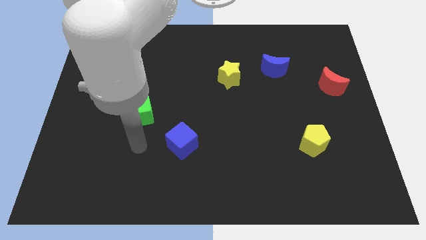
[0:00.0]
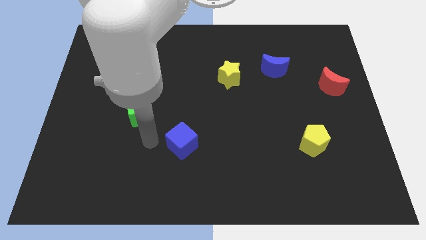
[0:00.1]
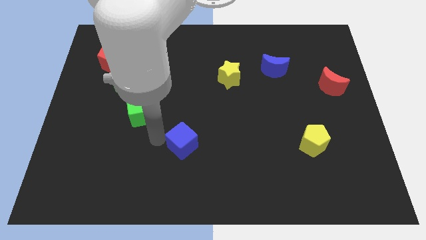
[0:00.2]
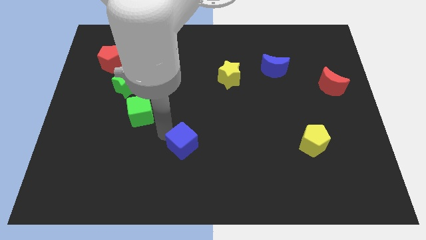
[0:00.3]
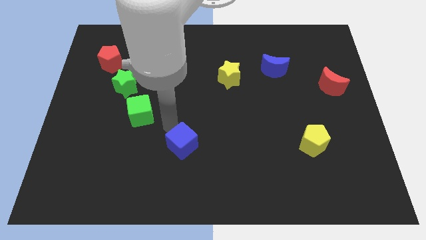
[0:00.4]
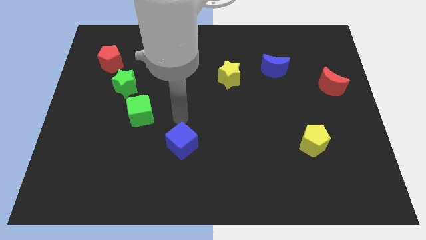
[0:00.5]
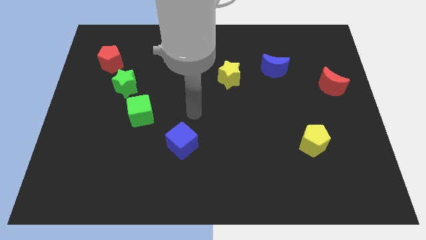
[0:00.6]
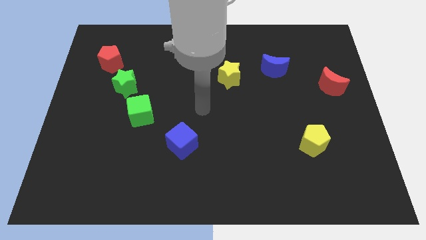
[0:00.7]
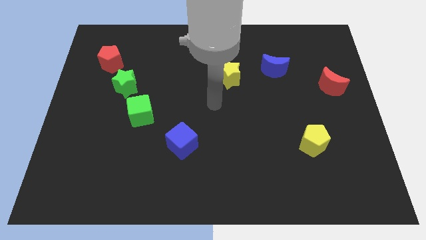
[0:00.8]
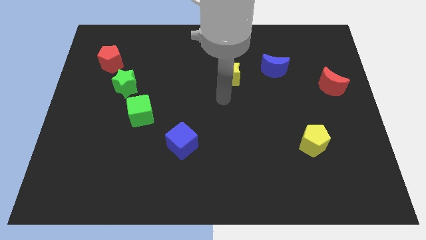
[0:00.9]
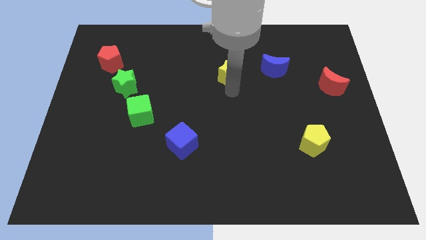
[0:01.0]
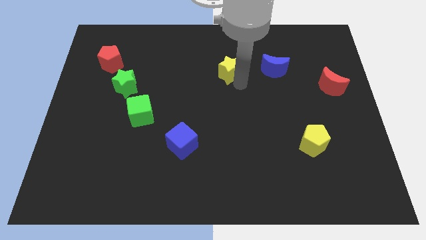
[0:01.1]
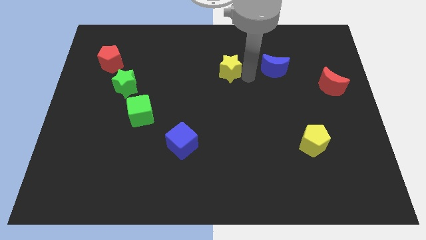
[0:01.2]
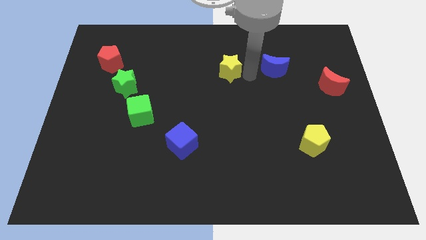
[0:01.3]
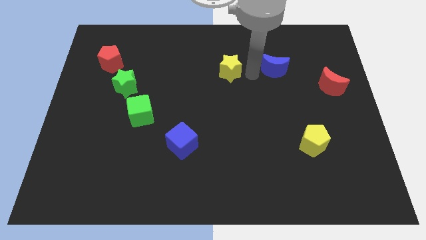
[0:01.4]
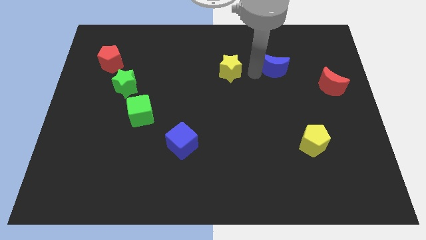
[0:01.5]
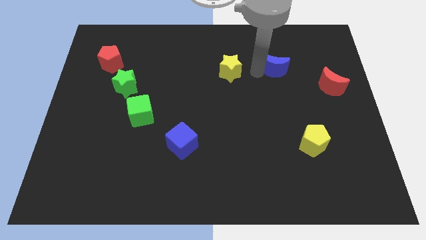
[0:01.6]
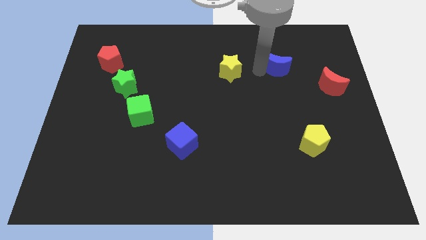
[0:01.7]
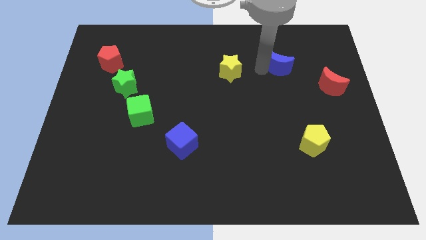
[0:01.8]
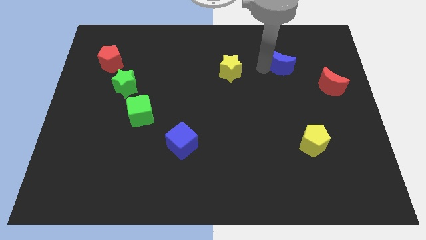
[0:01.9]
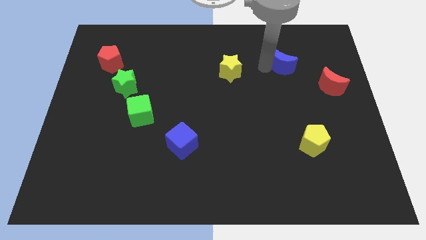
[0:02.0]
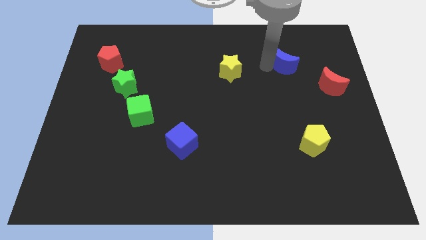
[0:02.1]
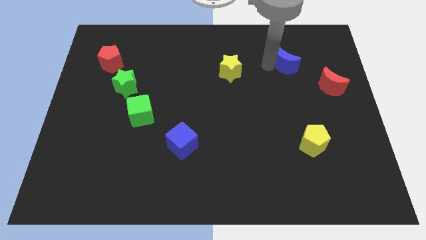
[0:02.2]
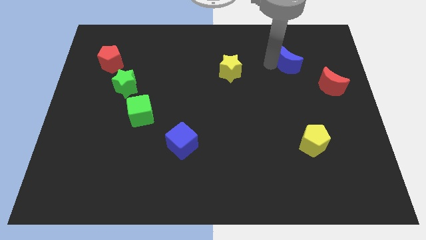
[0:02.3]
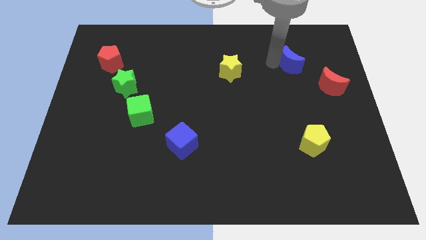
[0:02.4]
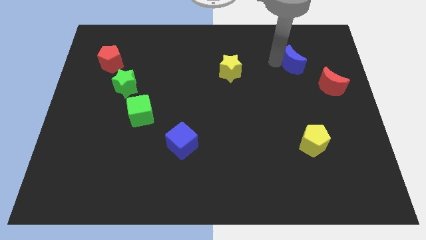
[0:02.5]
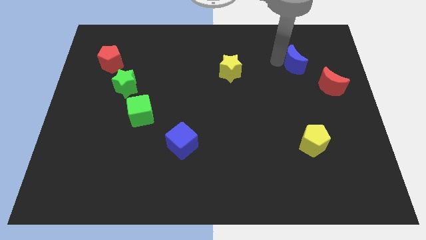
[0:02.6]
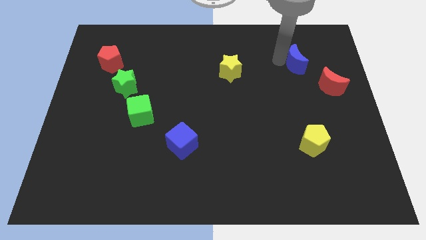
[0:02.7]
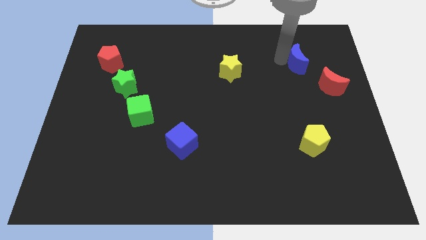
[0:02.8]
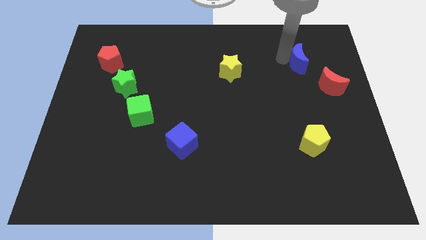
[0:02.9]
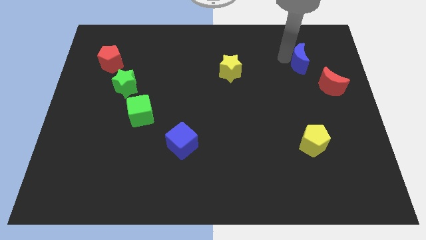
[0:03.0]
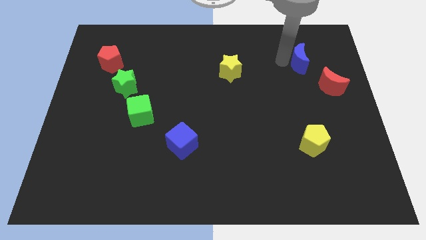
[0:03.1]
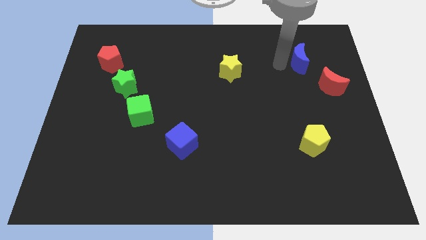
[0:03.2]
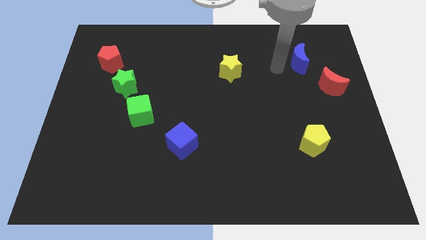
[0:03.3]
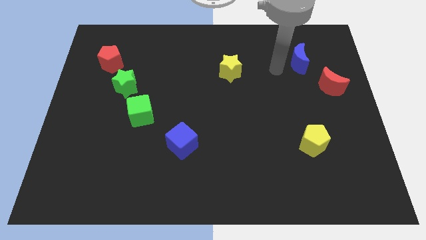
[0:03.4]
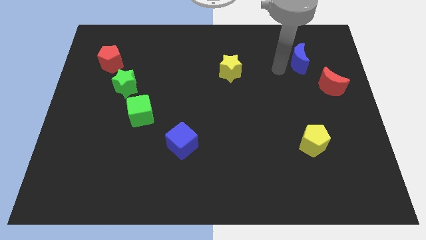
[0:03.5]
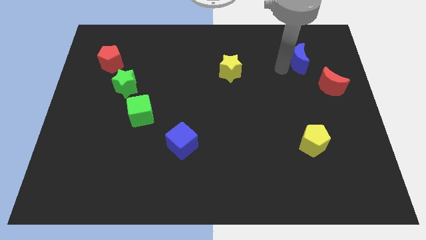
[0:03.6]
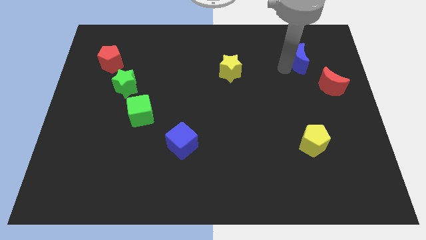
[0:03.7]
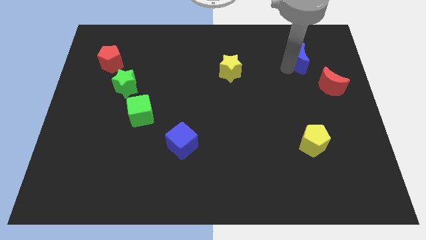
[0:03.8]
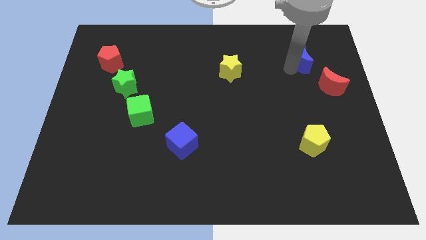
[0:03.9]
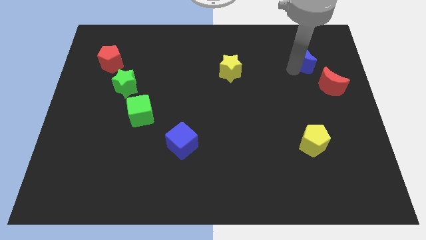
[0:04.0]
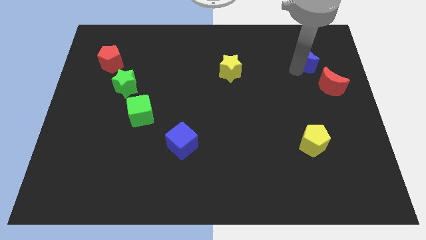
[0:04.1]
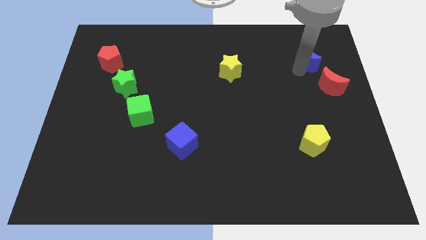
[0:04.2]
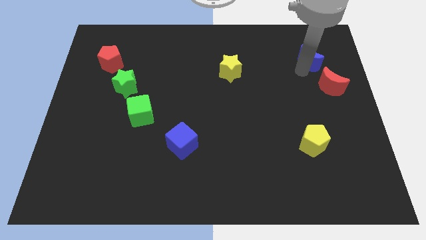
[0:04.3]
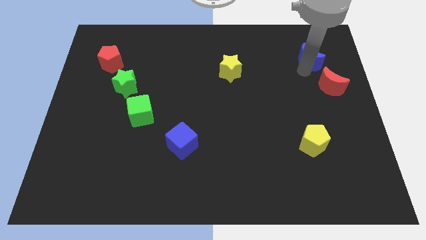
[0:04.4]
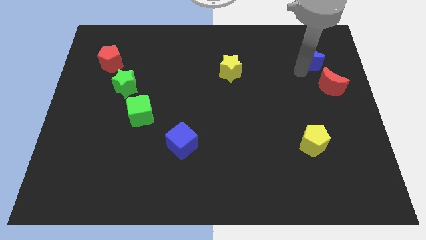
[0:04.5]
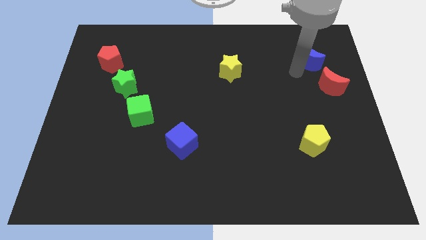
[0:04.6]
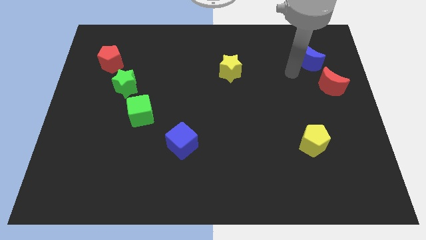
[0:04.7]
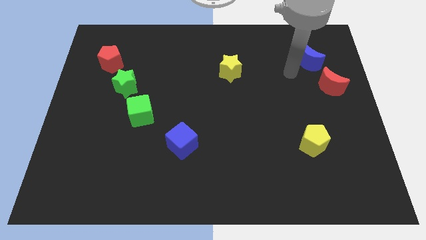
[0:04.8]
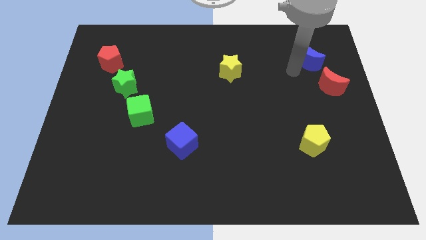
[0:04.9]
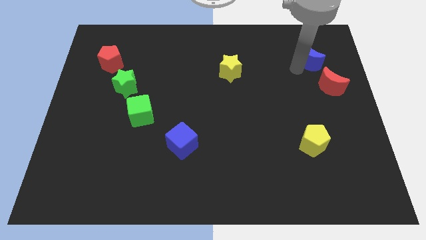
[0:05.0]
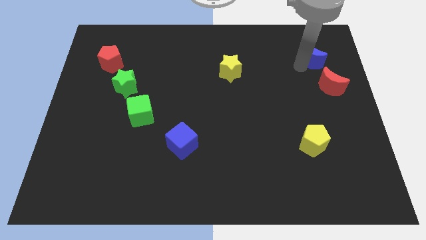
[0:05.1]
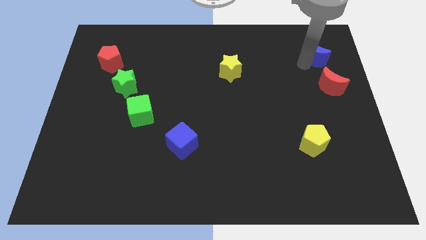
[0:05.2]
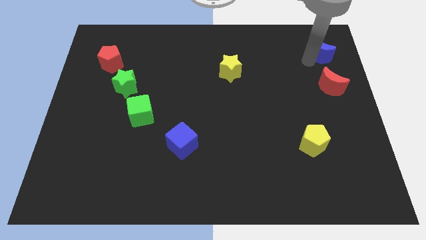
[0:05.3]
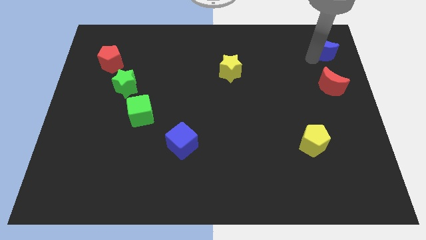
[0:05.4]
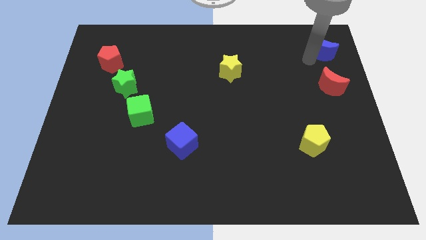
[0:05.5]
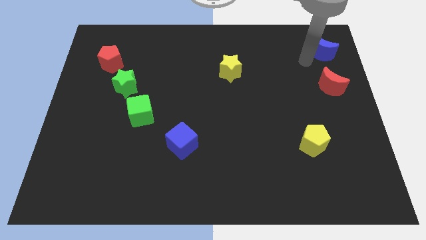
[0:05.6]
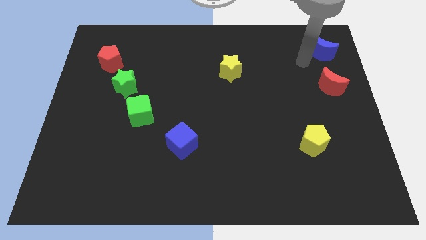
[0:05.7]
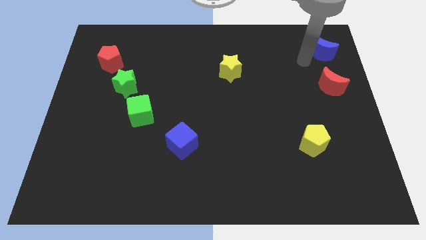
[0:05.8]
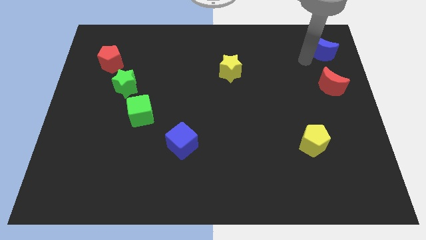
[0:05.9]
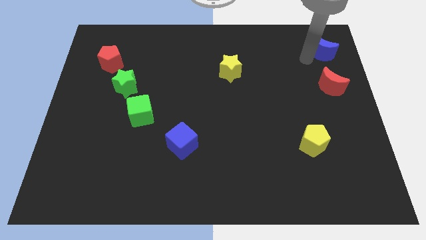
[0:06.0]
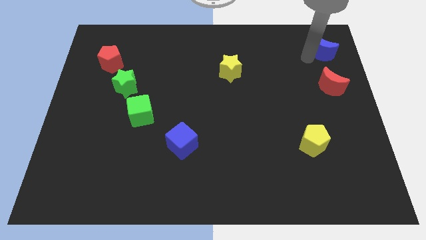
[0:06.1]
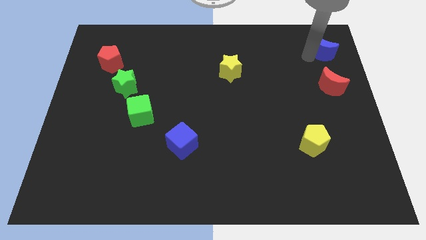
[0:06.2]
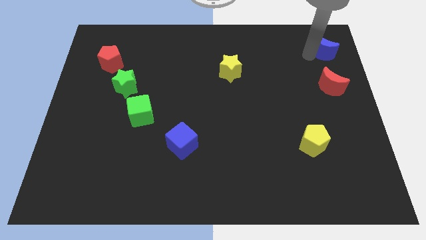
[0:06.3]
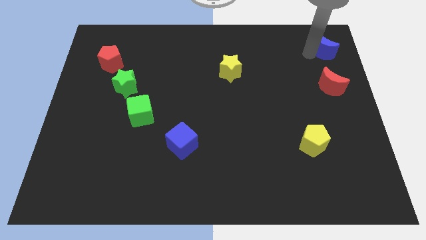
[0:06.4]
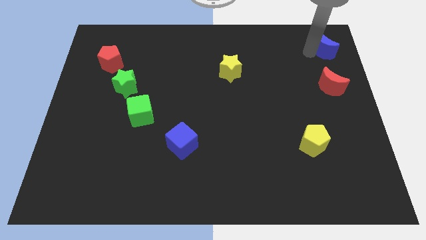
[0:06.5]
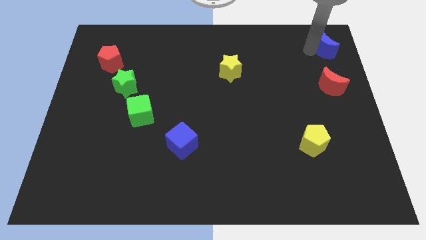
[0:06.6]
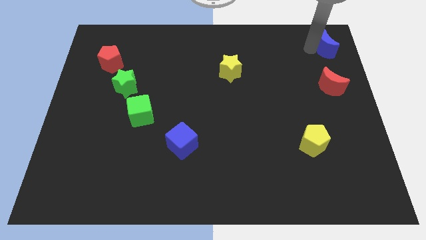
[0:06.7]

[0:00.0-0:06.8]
put the blue moon to the top right corner
